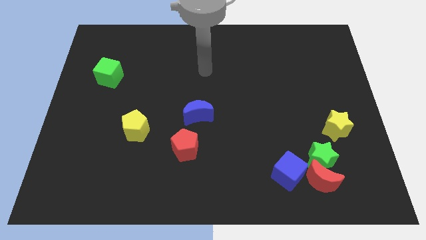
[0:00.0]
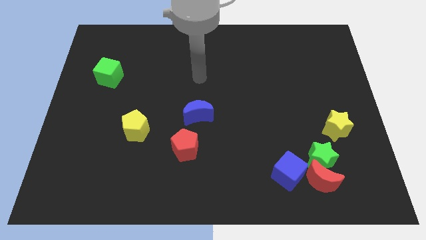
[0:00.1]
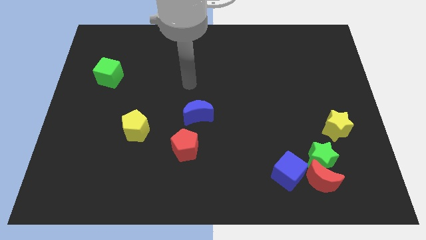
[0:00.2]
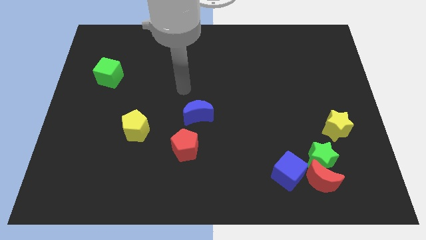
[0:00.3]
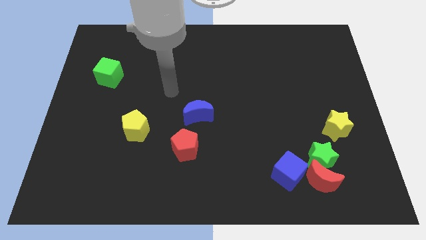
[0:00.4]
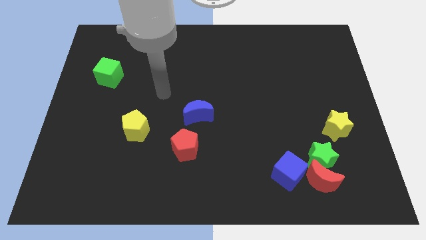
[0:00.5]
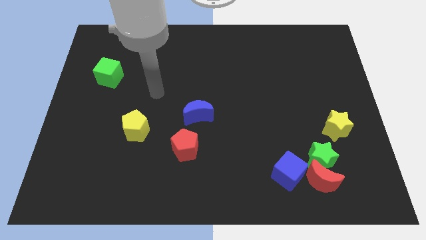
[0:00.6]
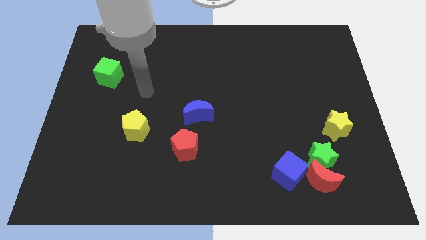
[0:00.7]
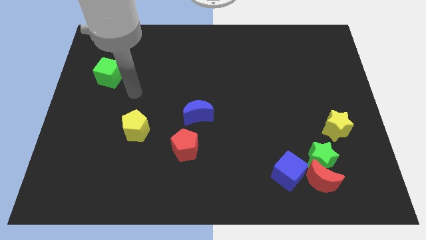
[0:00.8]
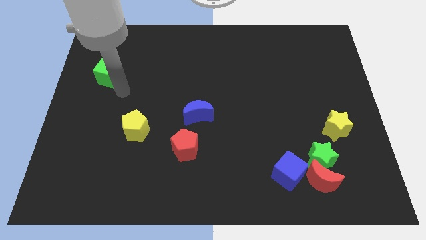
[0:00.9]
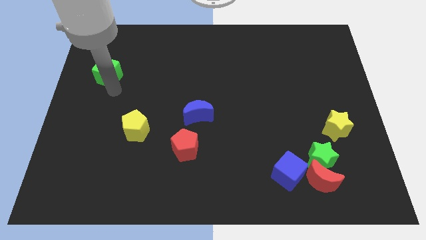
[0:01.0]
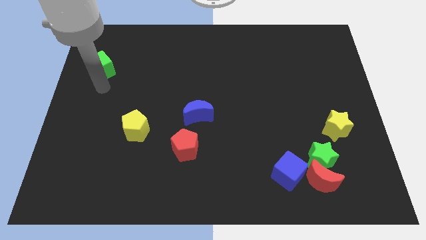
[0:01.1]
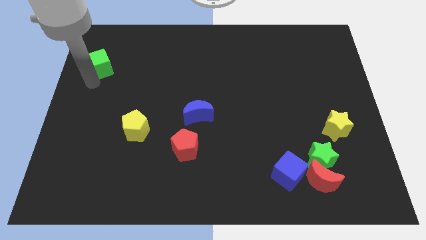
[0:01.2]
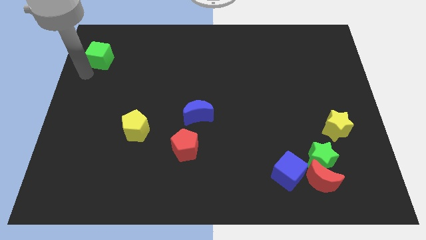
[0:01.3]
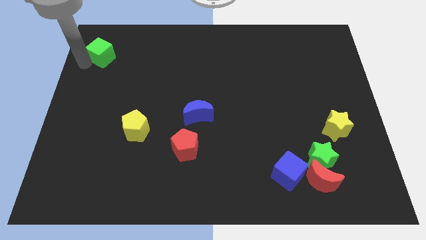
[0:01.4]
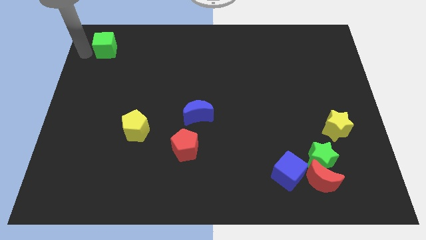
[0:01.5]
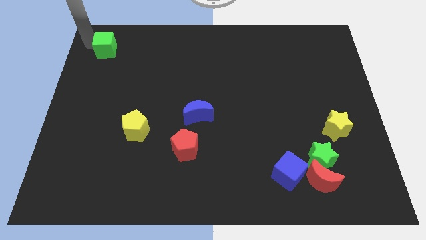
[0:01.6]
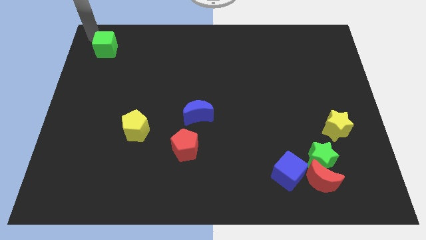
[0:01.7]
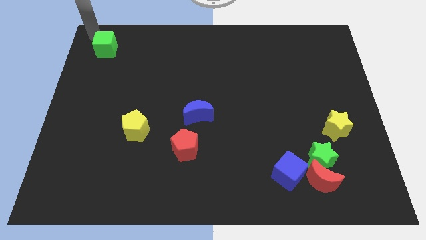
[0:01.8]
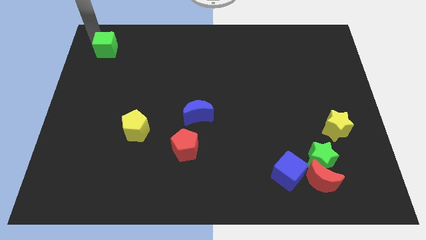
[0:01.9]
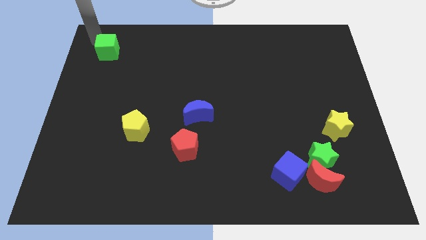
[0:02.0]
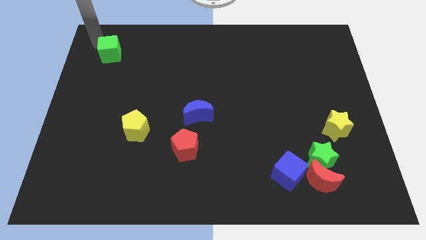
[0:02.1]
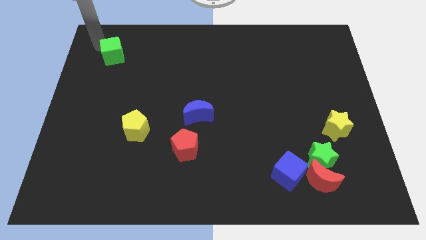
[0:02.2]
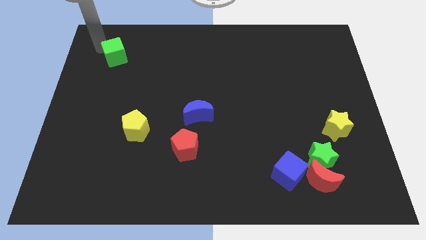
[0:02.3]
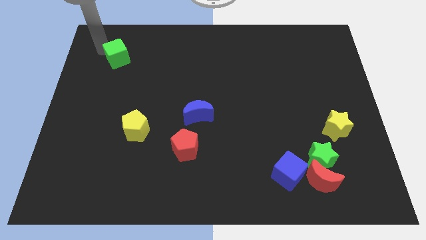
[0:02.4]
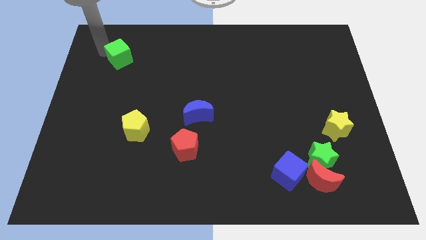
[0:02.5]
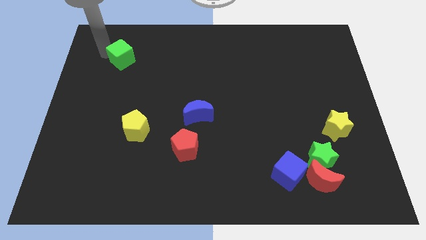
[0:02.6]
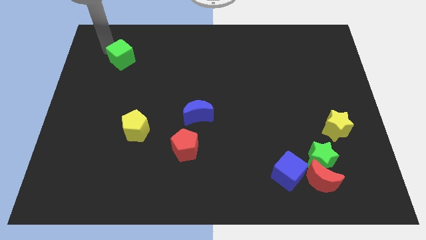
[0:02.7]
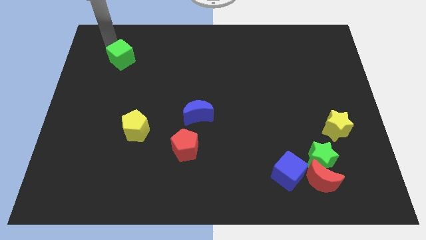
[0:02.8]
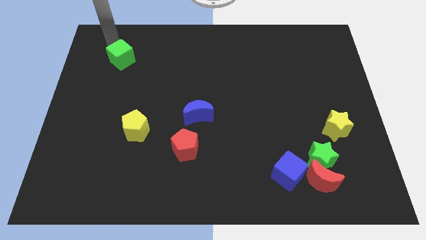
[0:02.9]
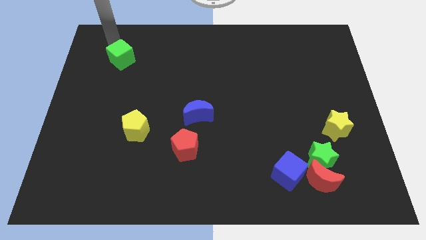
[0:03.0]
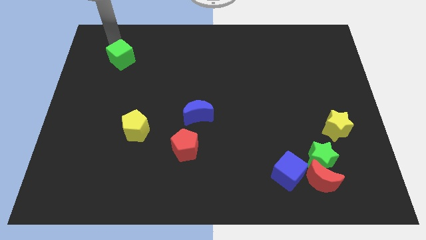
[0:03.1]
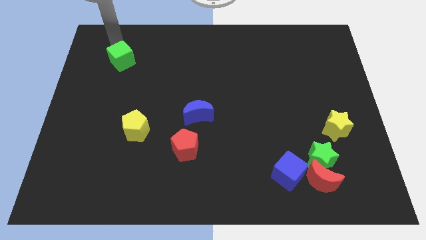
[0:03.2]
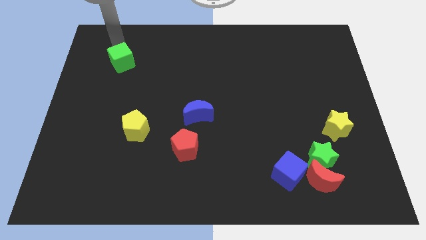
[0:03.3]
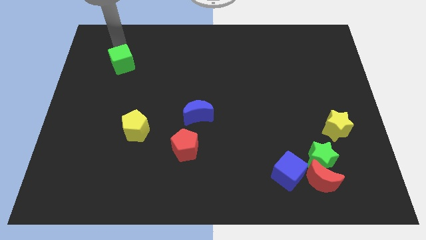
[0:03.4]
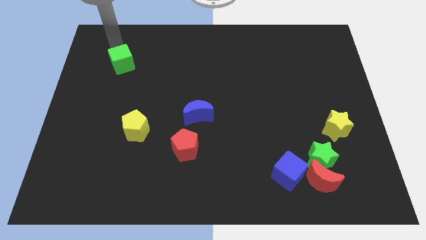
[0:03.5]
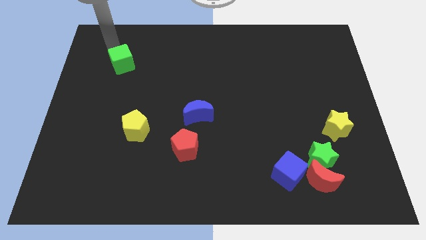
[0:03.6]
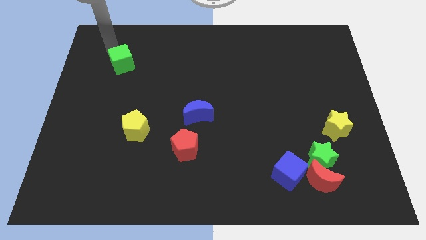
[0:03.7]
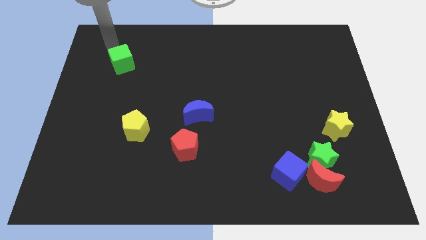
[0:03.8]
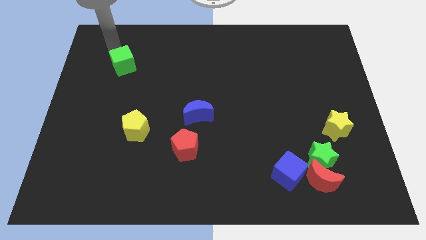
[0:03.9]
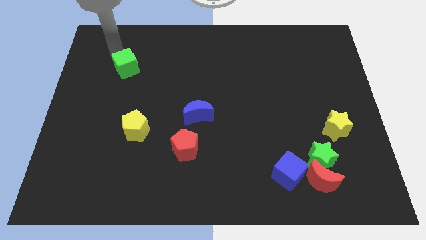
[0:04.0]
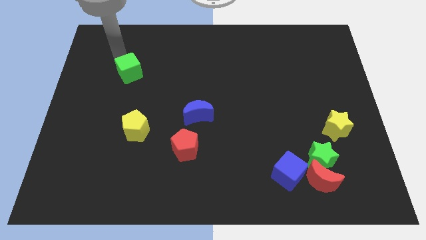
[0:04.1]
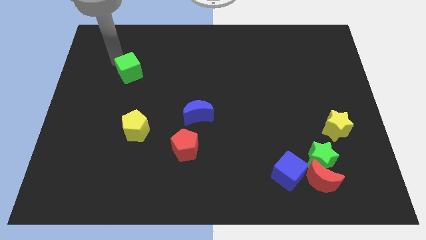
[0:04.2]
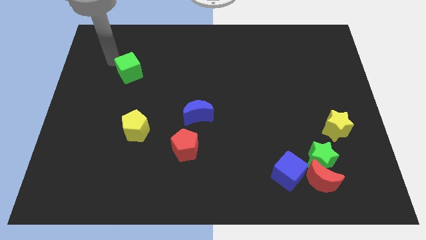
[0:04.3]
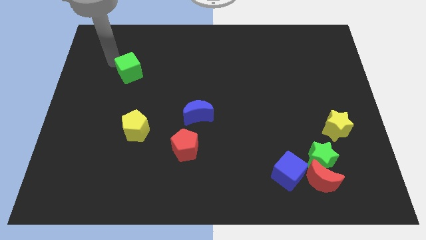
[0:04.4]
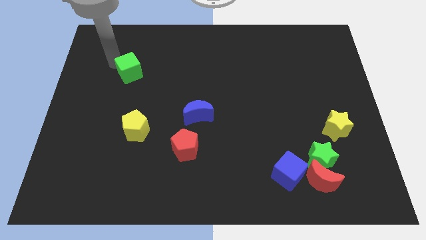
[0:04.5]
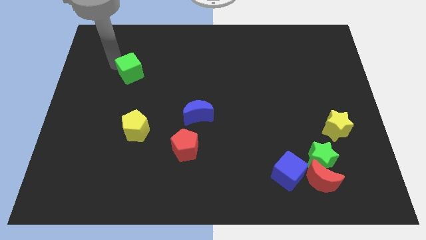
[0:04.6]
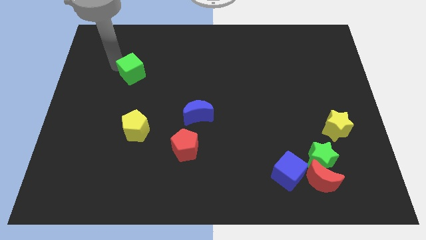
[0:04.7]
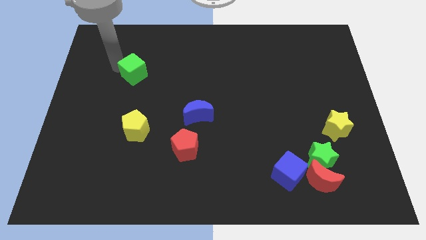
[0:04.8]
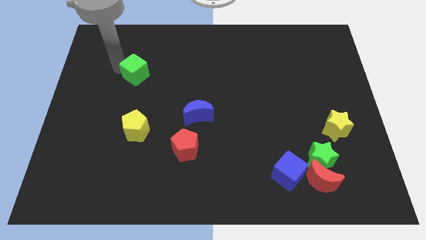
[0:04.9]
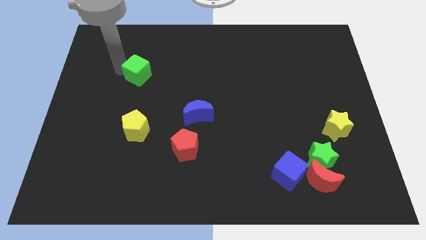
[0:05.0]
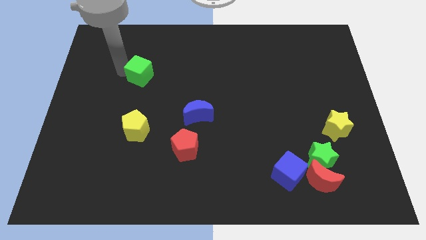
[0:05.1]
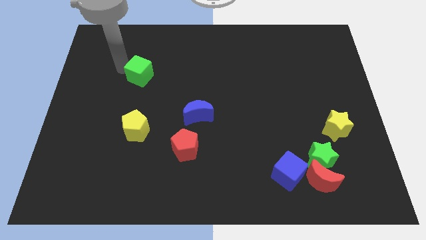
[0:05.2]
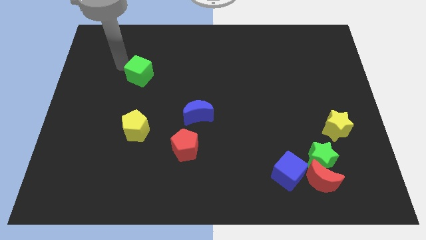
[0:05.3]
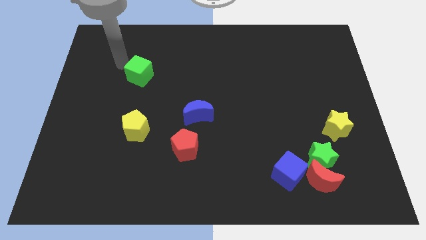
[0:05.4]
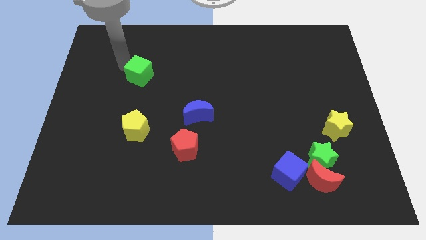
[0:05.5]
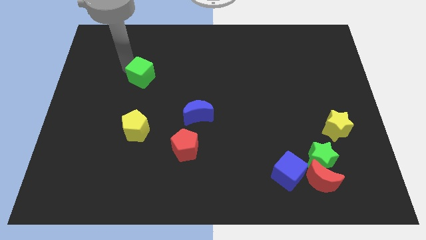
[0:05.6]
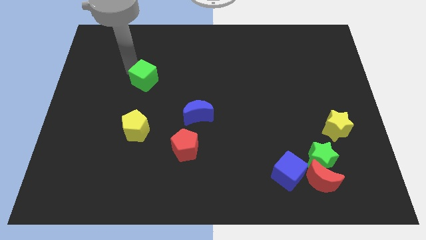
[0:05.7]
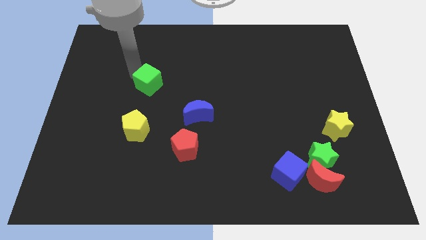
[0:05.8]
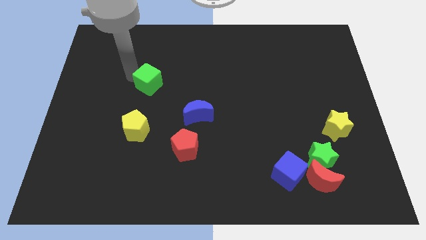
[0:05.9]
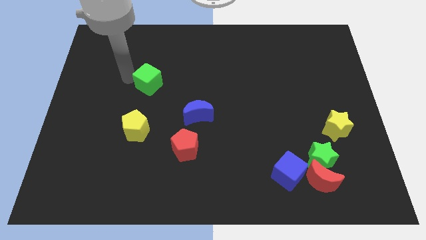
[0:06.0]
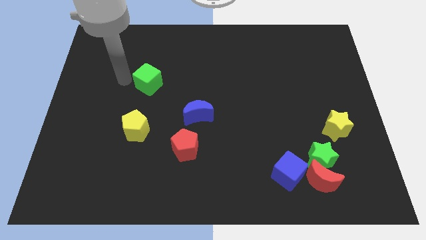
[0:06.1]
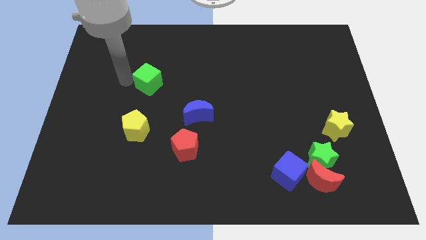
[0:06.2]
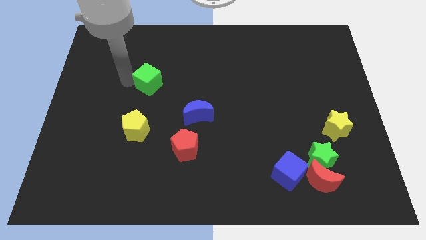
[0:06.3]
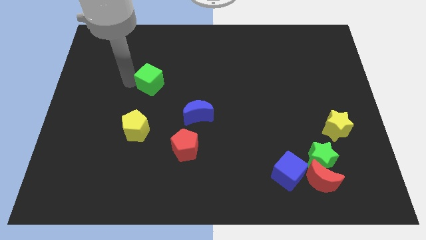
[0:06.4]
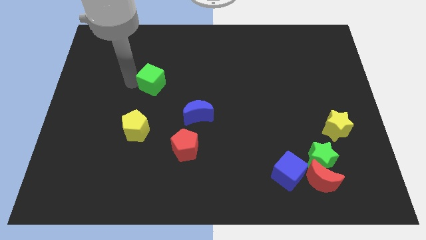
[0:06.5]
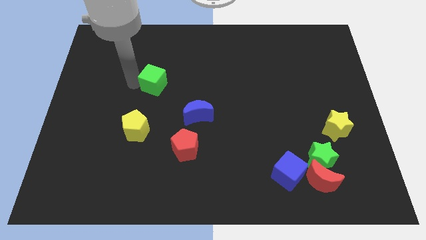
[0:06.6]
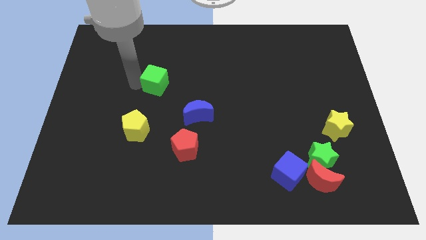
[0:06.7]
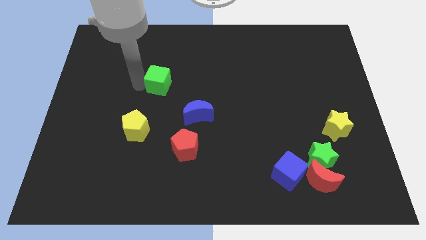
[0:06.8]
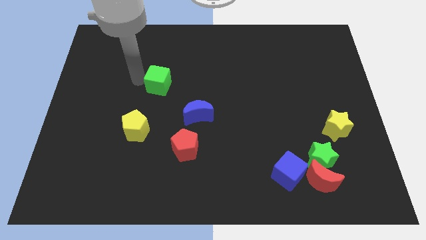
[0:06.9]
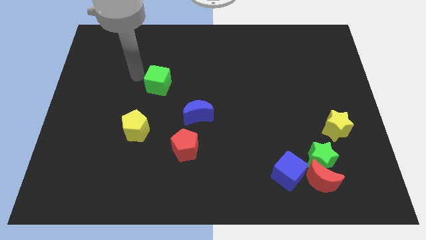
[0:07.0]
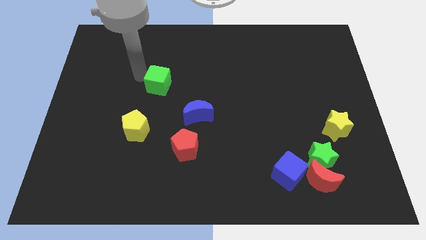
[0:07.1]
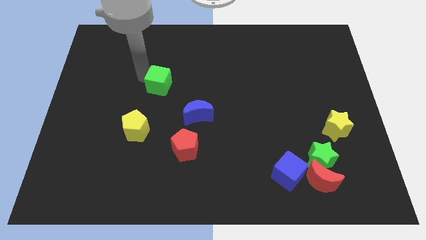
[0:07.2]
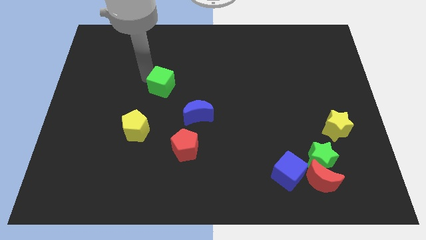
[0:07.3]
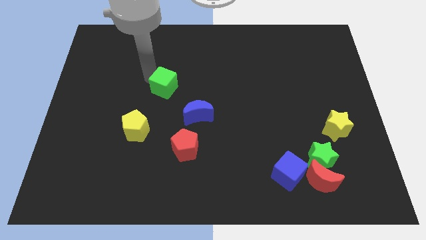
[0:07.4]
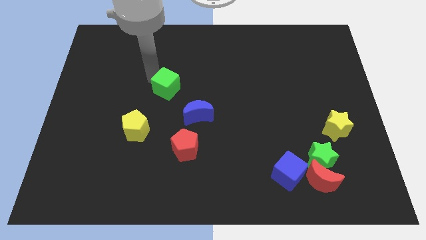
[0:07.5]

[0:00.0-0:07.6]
put the green cube to the center of the board
